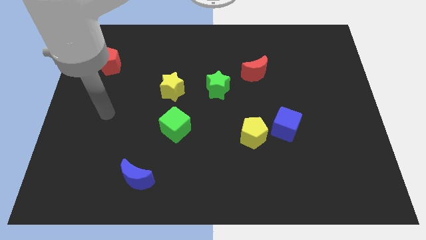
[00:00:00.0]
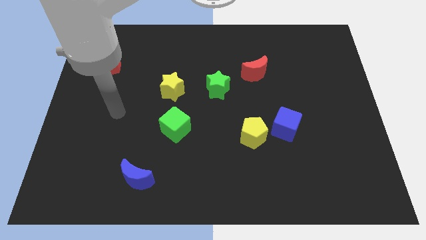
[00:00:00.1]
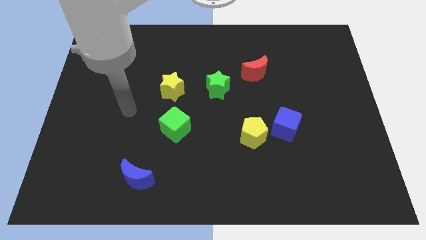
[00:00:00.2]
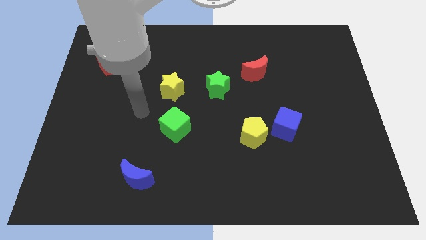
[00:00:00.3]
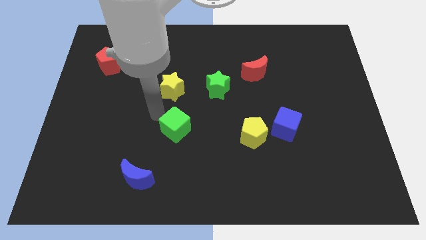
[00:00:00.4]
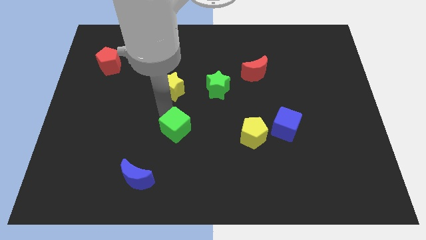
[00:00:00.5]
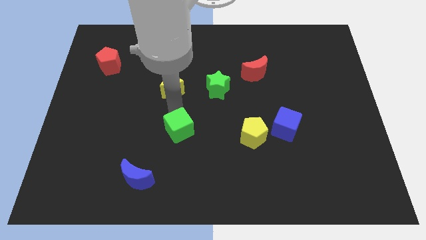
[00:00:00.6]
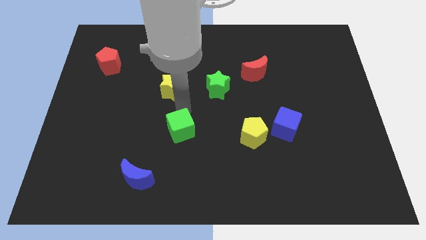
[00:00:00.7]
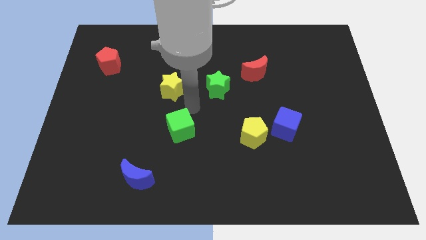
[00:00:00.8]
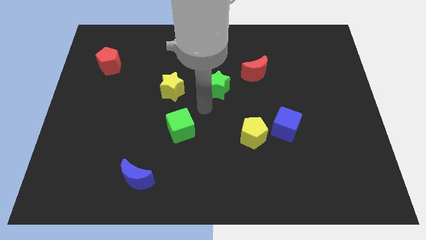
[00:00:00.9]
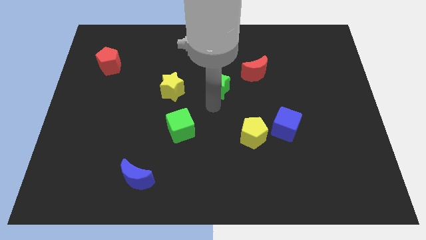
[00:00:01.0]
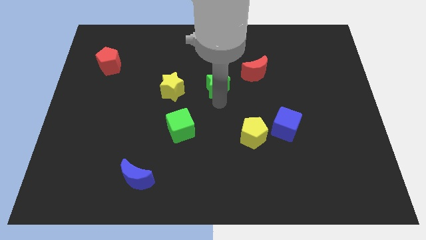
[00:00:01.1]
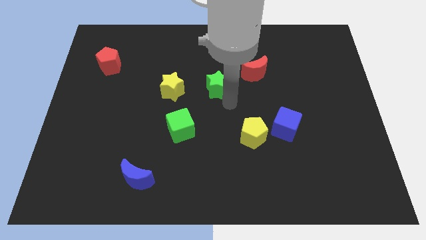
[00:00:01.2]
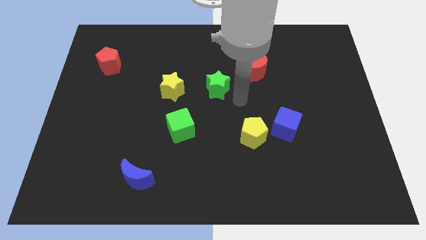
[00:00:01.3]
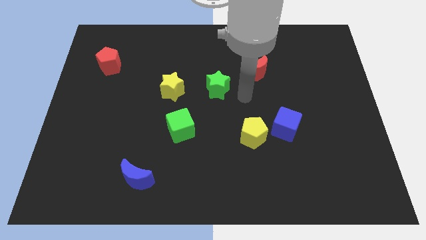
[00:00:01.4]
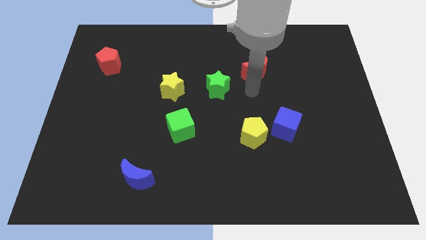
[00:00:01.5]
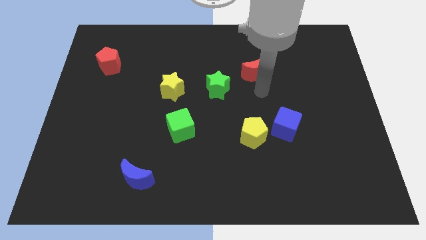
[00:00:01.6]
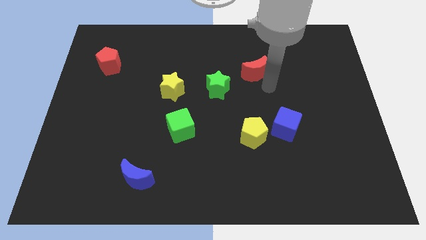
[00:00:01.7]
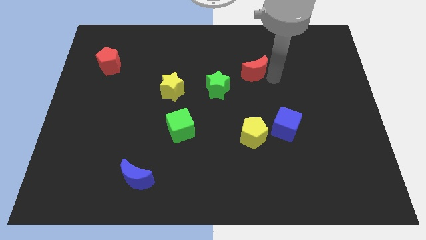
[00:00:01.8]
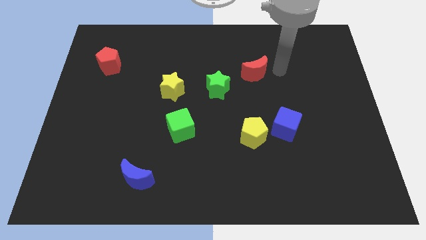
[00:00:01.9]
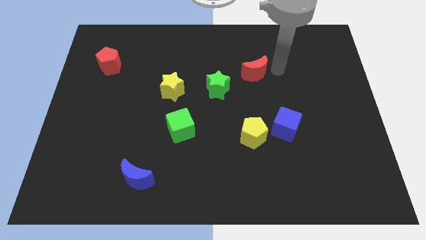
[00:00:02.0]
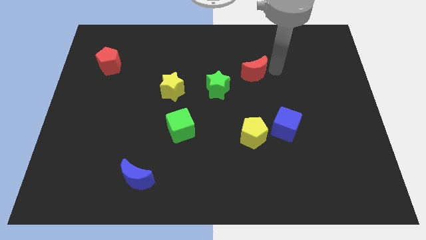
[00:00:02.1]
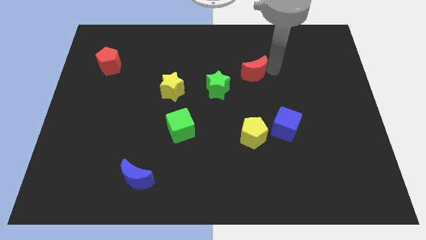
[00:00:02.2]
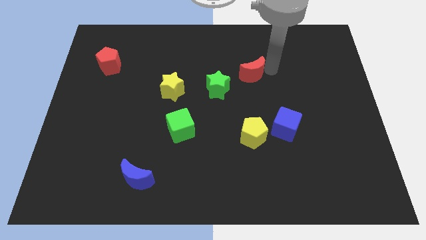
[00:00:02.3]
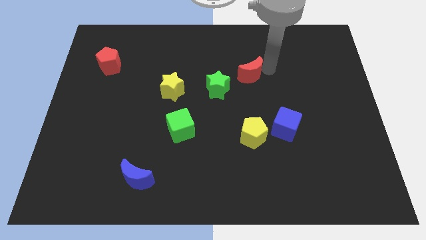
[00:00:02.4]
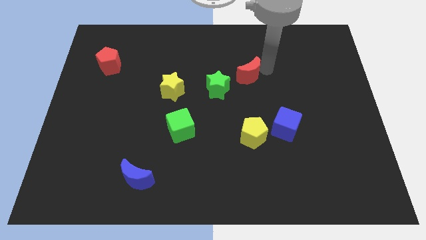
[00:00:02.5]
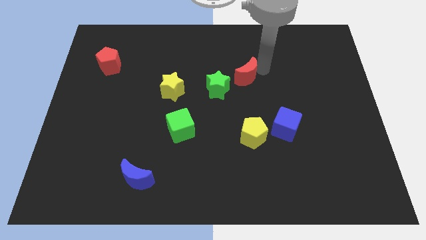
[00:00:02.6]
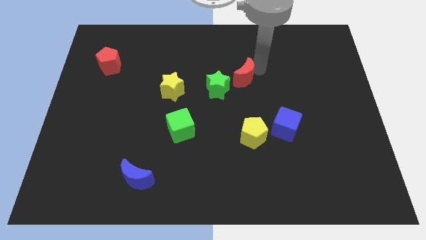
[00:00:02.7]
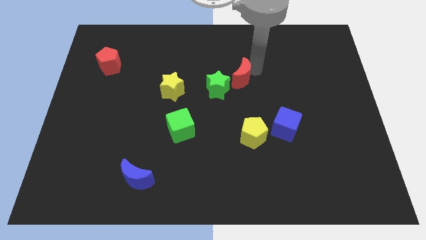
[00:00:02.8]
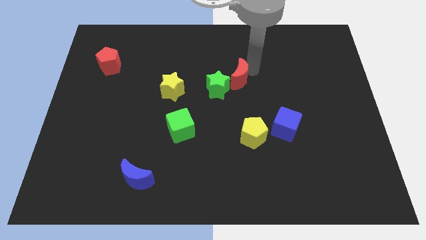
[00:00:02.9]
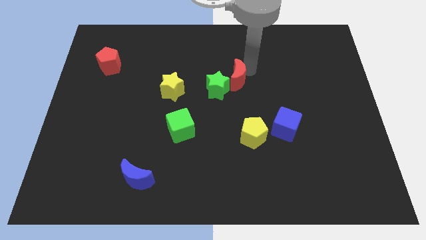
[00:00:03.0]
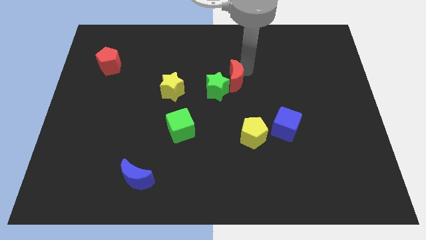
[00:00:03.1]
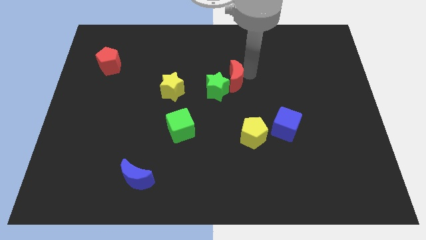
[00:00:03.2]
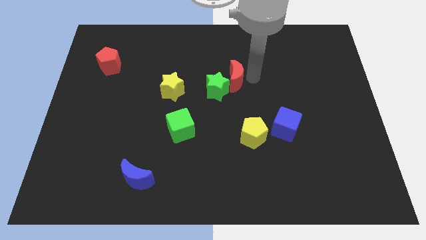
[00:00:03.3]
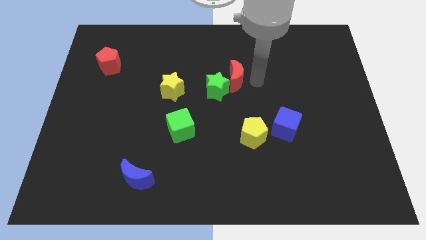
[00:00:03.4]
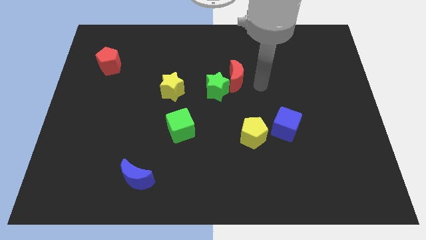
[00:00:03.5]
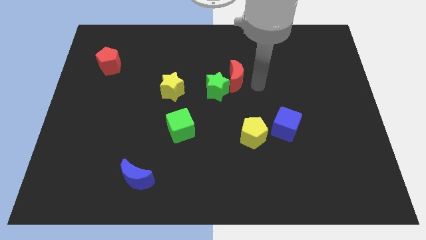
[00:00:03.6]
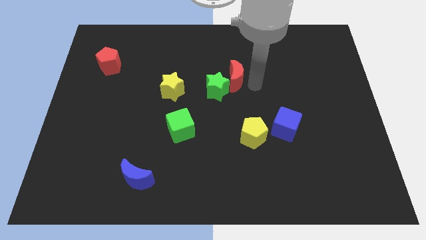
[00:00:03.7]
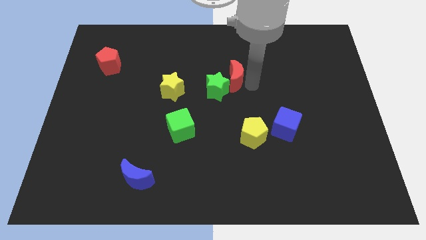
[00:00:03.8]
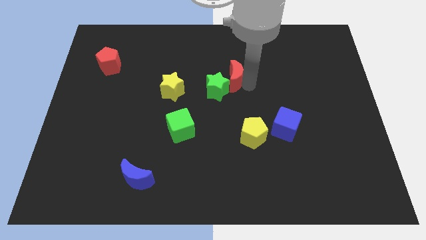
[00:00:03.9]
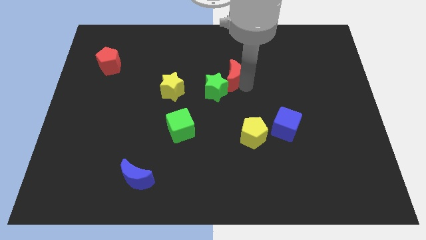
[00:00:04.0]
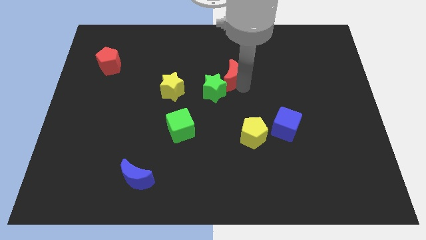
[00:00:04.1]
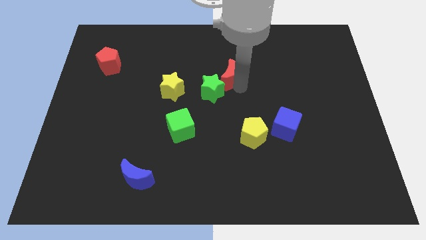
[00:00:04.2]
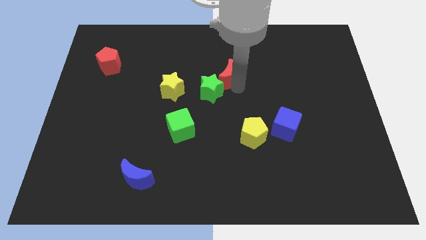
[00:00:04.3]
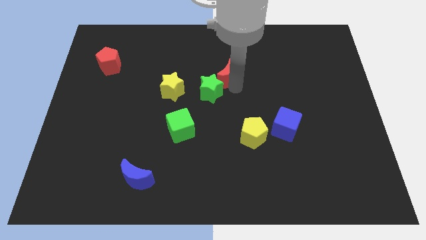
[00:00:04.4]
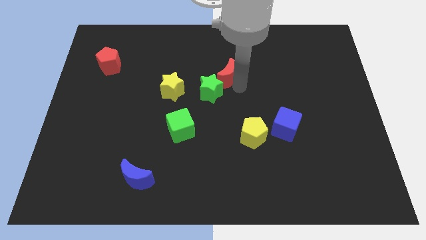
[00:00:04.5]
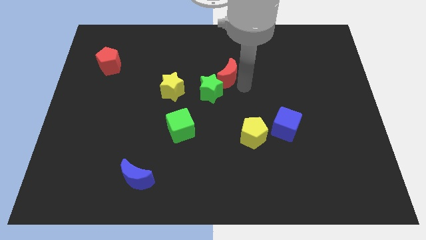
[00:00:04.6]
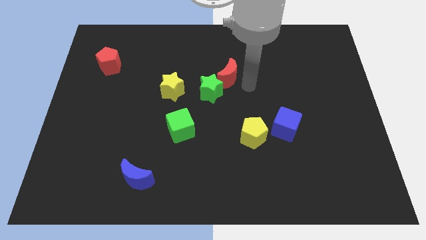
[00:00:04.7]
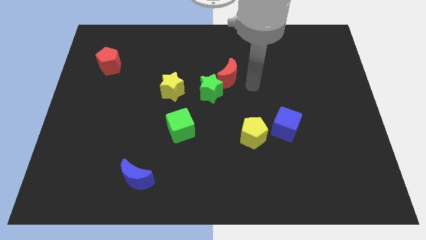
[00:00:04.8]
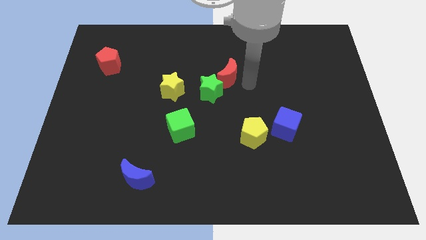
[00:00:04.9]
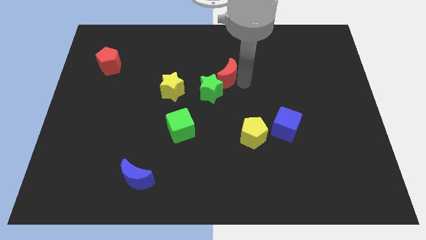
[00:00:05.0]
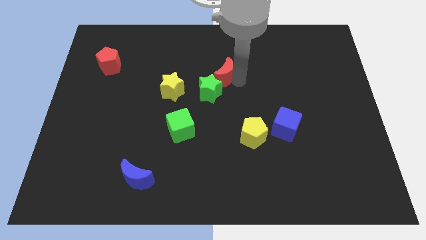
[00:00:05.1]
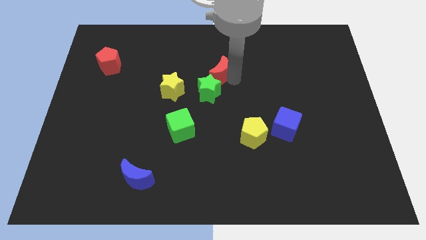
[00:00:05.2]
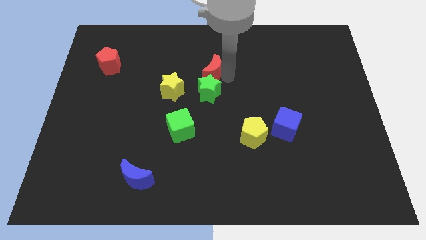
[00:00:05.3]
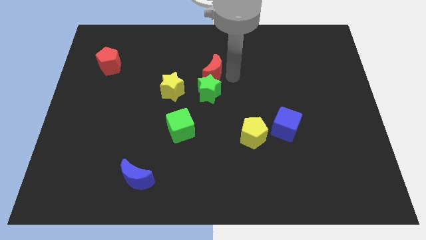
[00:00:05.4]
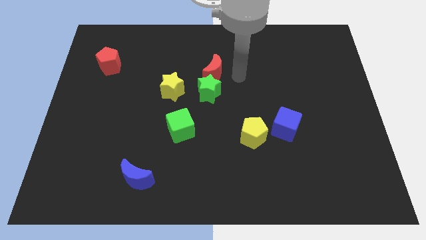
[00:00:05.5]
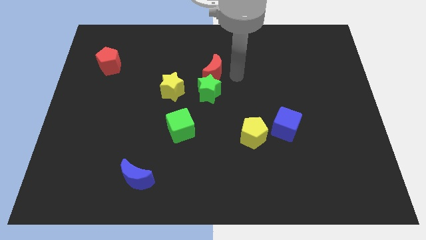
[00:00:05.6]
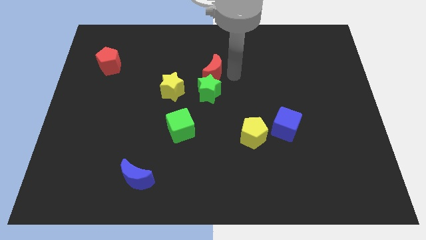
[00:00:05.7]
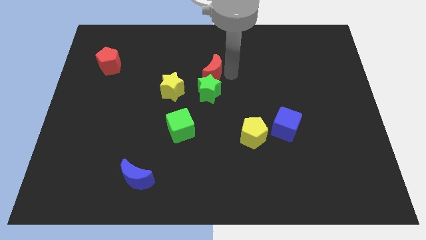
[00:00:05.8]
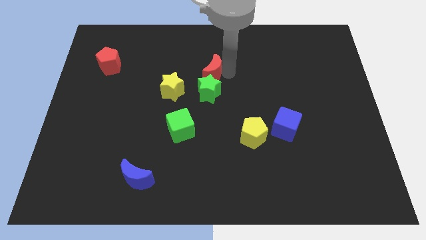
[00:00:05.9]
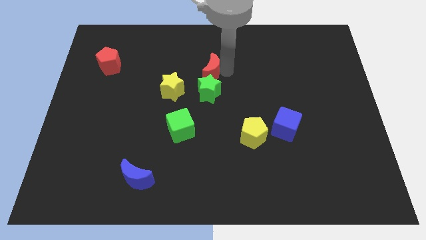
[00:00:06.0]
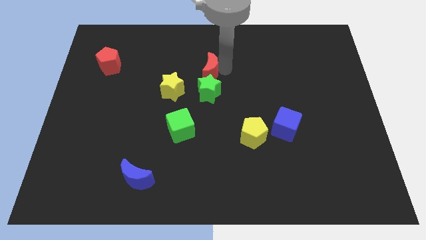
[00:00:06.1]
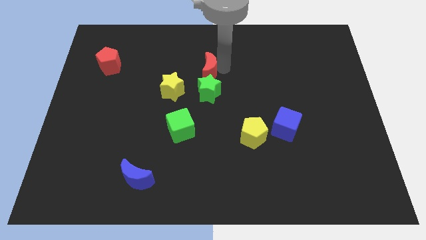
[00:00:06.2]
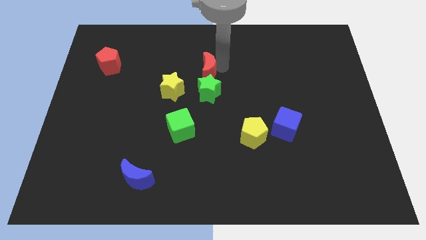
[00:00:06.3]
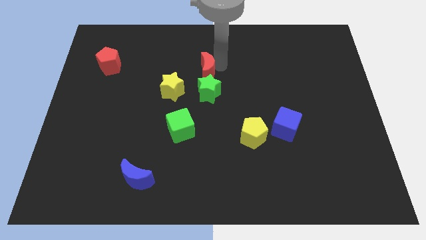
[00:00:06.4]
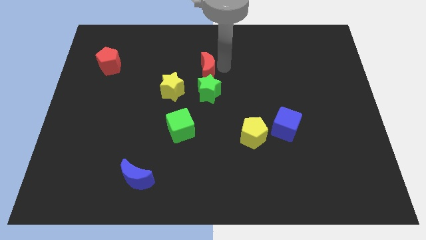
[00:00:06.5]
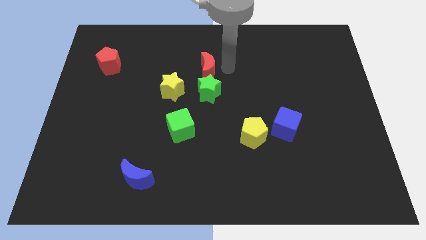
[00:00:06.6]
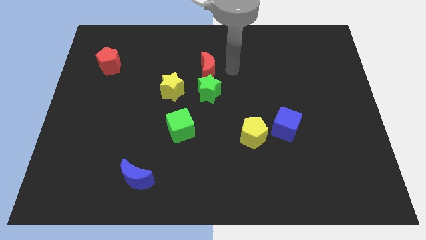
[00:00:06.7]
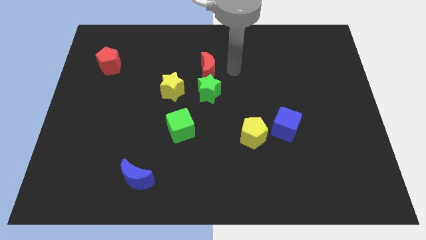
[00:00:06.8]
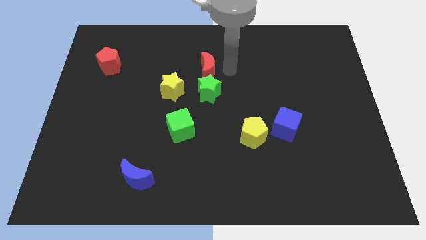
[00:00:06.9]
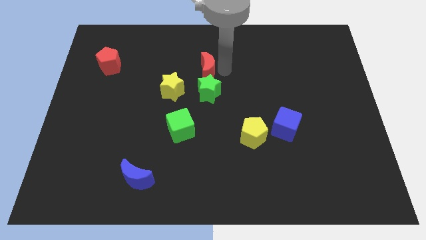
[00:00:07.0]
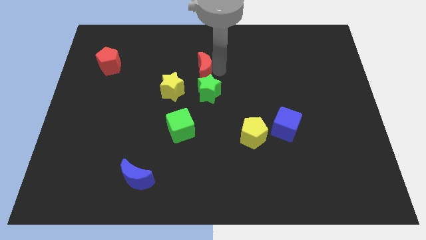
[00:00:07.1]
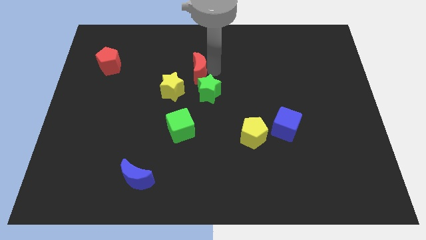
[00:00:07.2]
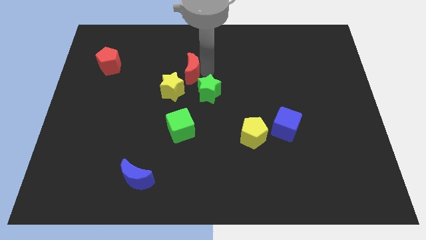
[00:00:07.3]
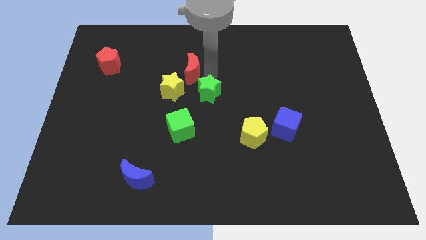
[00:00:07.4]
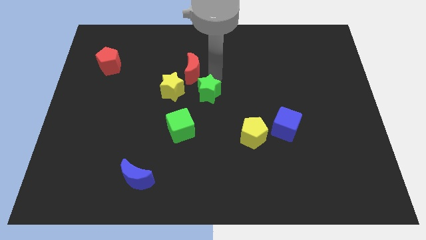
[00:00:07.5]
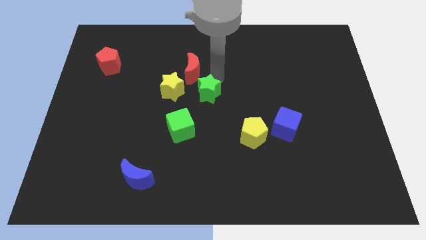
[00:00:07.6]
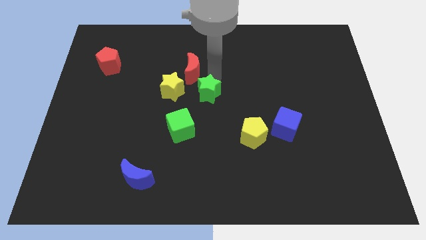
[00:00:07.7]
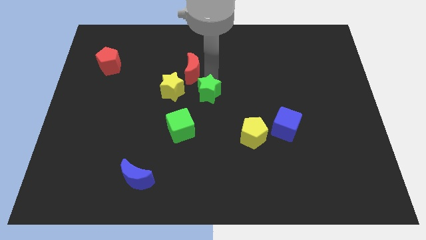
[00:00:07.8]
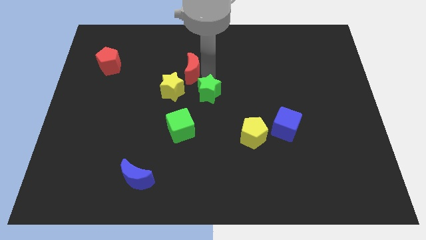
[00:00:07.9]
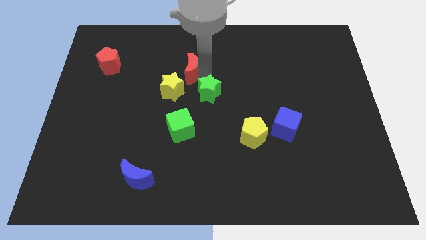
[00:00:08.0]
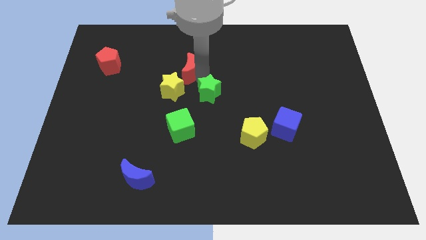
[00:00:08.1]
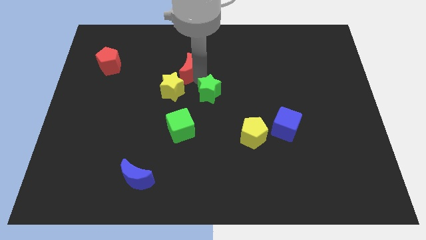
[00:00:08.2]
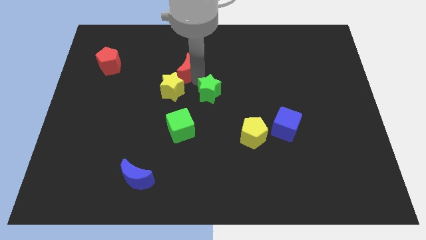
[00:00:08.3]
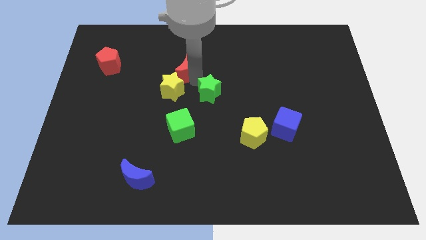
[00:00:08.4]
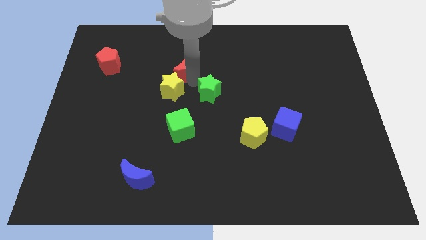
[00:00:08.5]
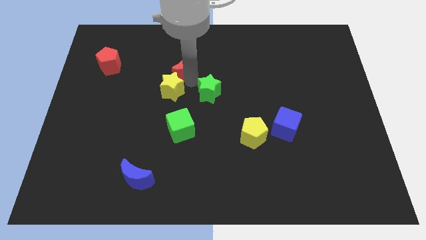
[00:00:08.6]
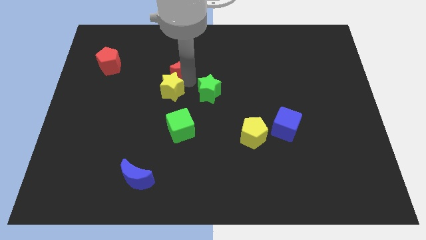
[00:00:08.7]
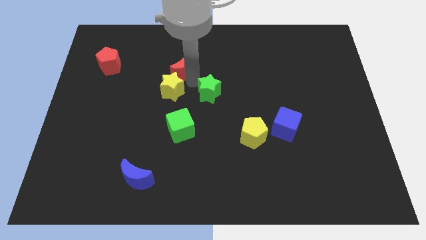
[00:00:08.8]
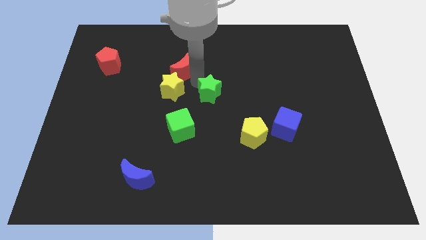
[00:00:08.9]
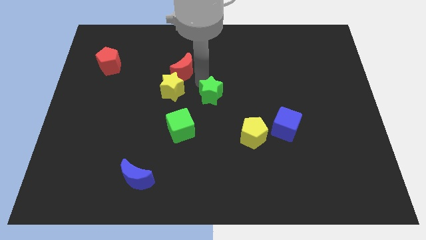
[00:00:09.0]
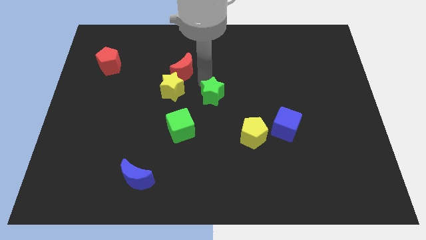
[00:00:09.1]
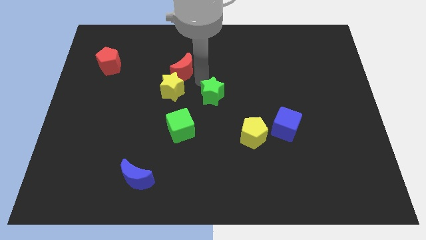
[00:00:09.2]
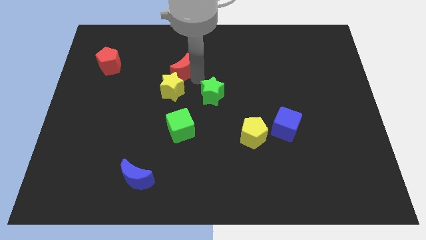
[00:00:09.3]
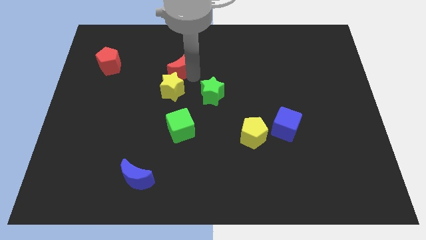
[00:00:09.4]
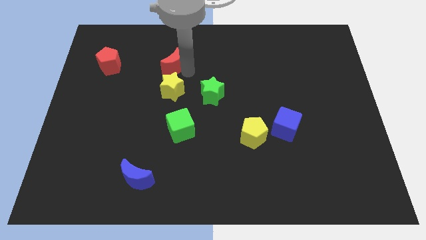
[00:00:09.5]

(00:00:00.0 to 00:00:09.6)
slide the red moon to the left
